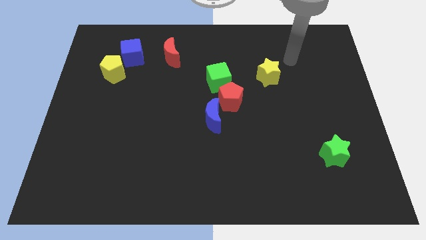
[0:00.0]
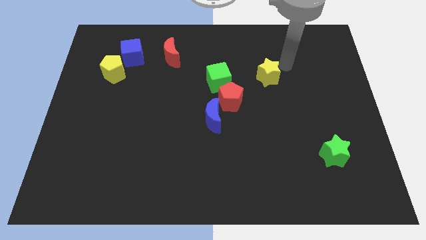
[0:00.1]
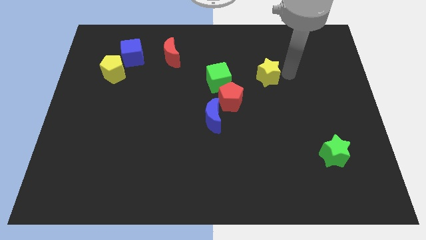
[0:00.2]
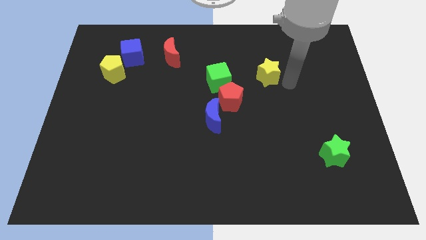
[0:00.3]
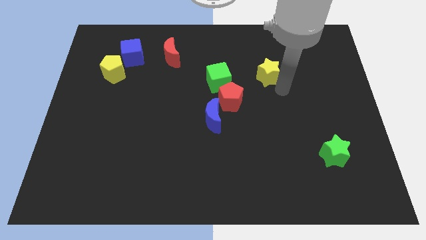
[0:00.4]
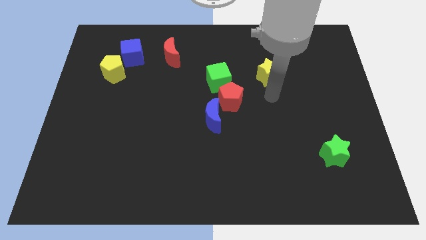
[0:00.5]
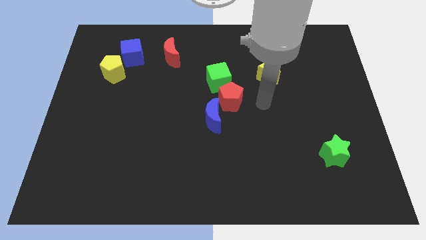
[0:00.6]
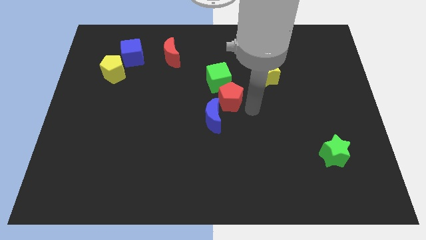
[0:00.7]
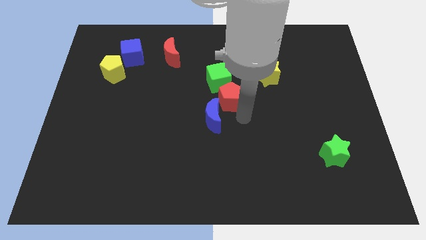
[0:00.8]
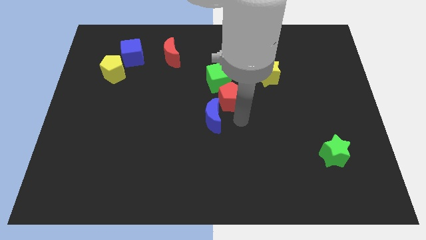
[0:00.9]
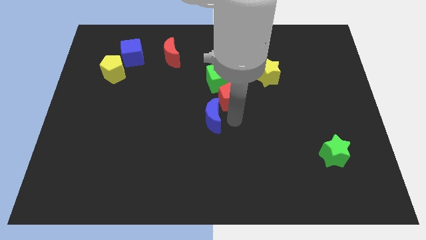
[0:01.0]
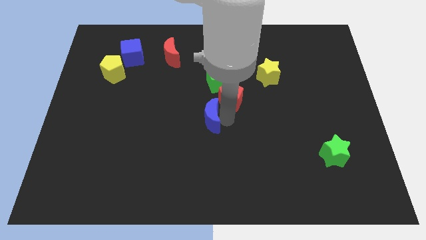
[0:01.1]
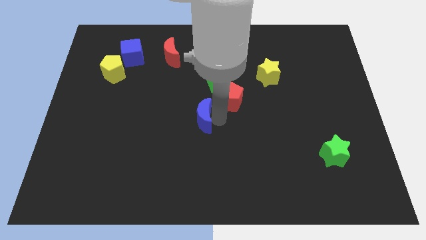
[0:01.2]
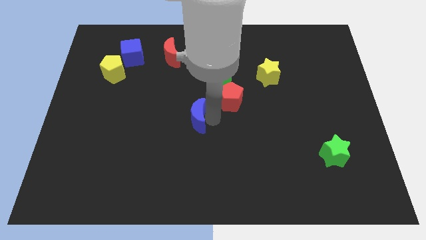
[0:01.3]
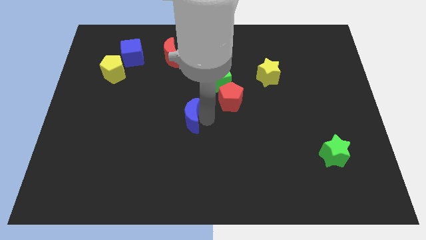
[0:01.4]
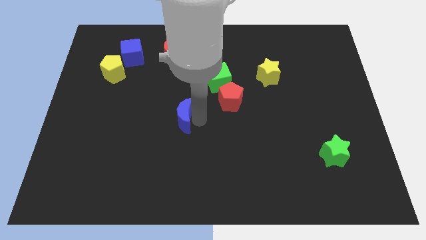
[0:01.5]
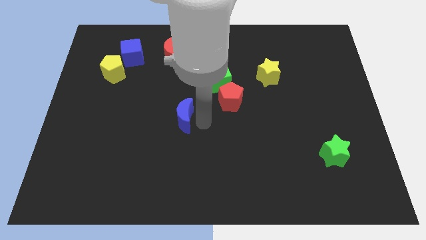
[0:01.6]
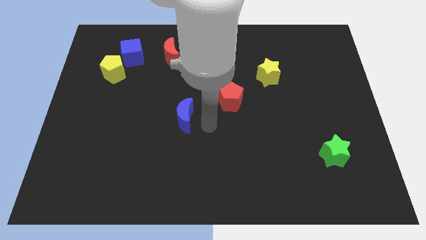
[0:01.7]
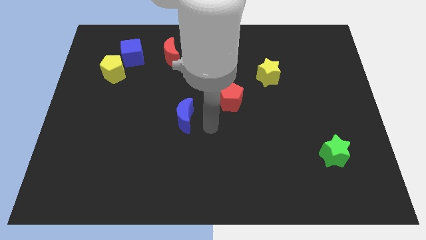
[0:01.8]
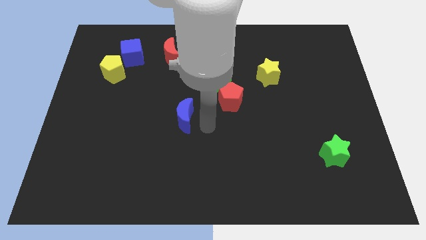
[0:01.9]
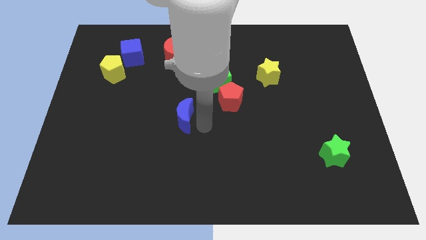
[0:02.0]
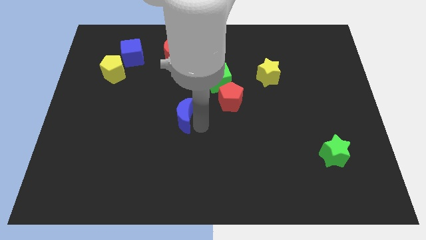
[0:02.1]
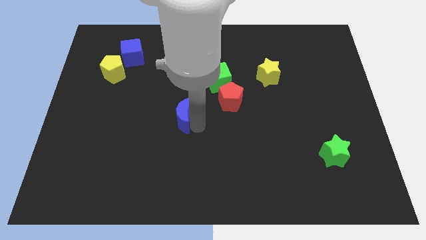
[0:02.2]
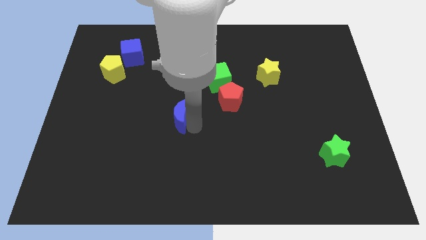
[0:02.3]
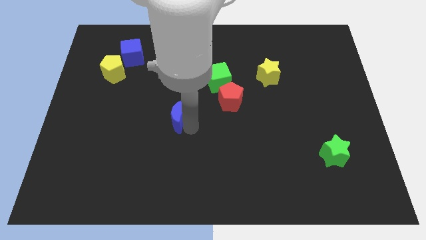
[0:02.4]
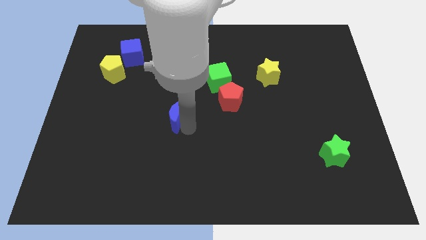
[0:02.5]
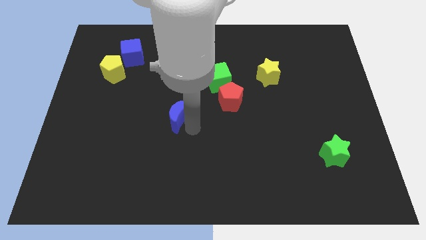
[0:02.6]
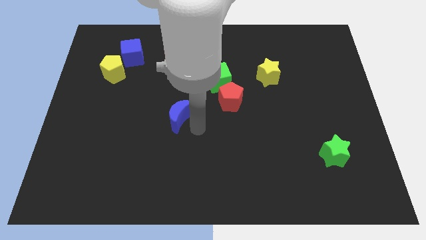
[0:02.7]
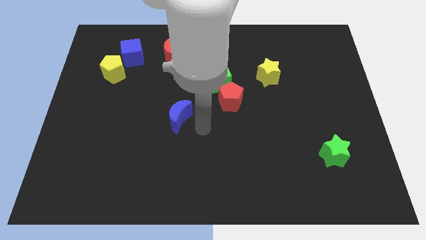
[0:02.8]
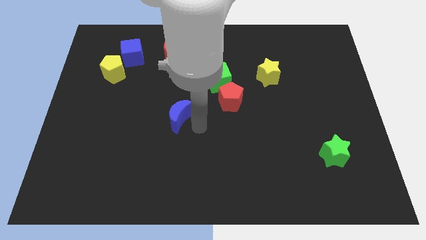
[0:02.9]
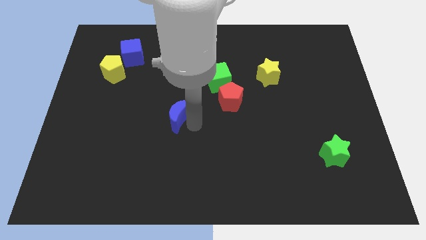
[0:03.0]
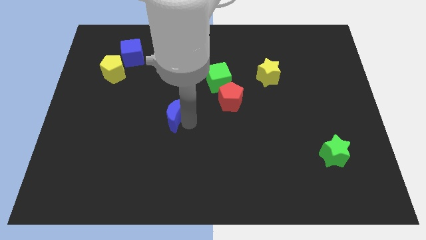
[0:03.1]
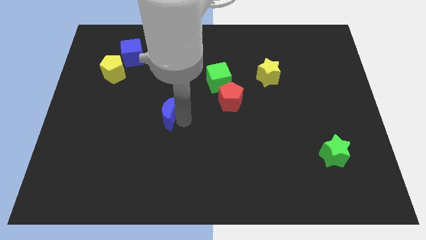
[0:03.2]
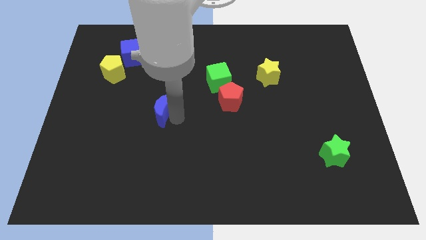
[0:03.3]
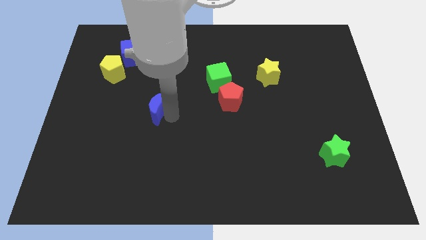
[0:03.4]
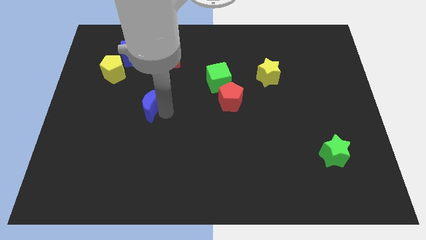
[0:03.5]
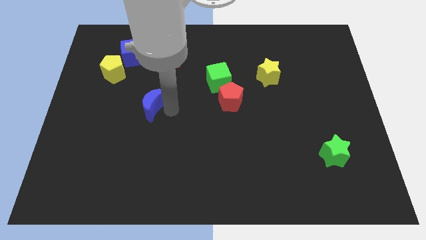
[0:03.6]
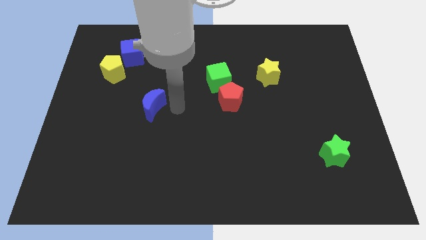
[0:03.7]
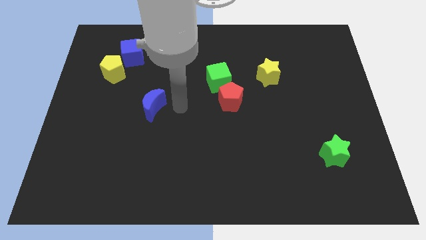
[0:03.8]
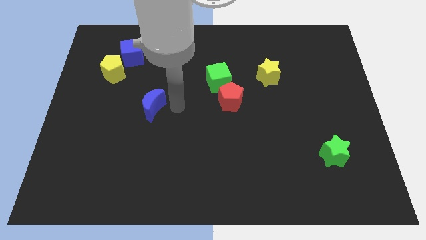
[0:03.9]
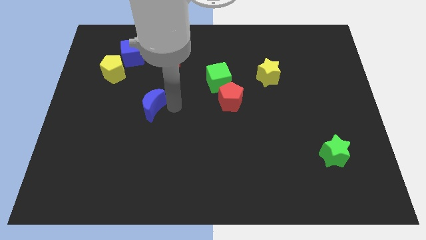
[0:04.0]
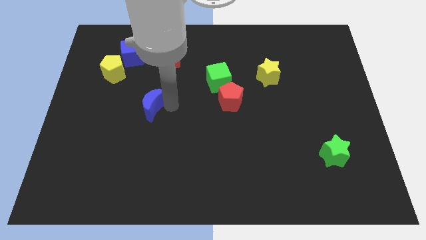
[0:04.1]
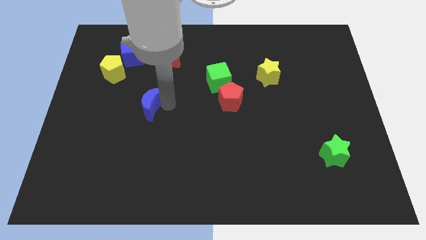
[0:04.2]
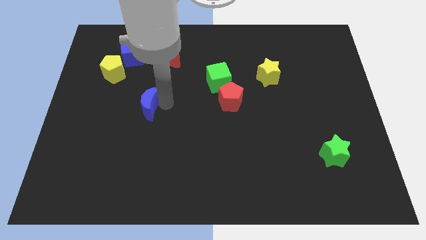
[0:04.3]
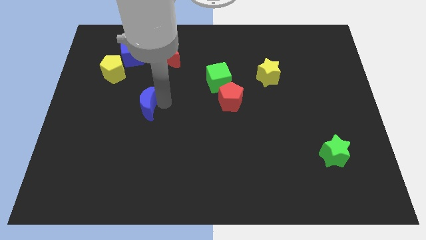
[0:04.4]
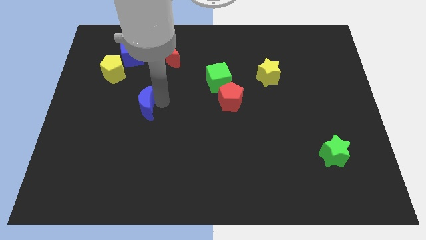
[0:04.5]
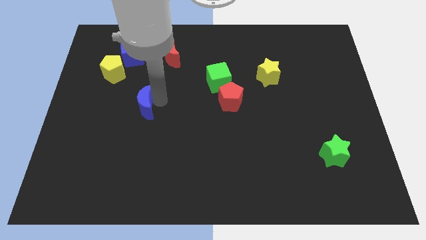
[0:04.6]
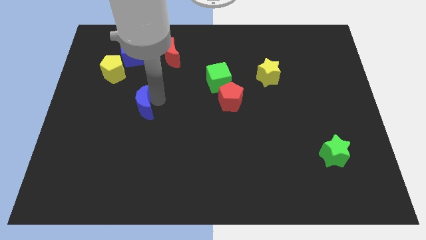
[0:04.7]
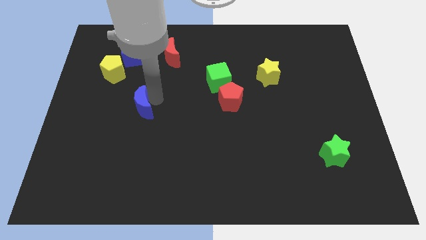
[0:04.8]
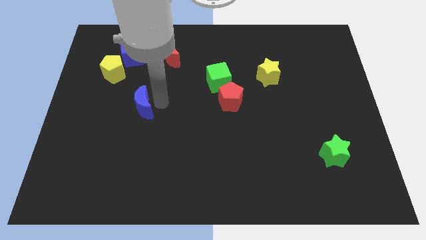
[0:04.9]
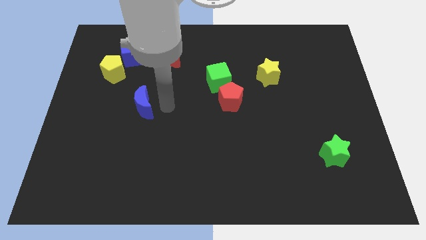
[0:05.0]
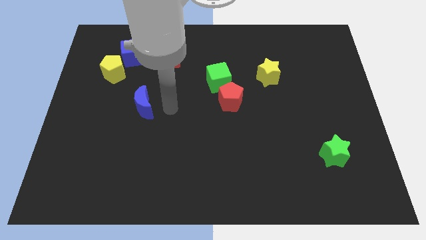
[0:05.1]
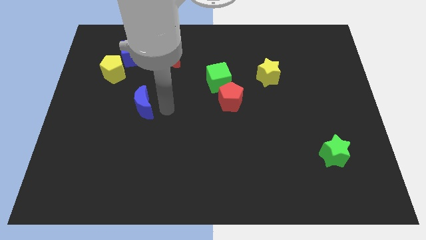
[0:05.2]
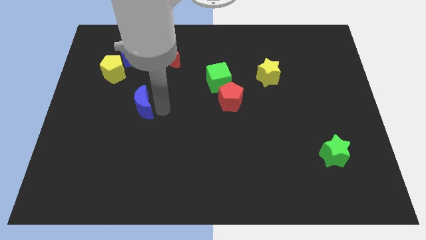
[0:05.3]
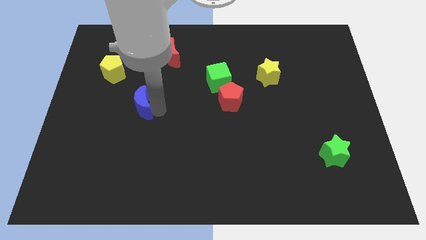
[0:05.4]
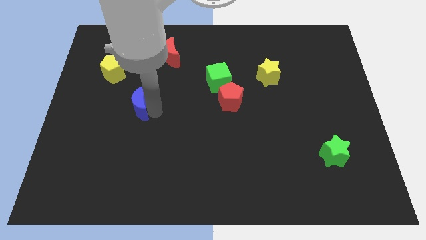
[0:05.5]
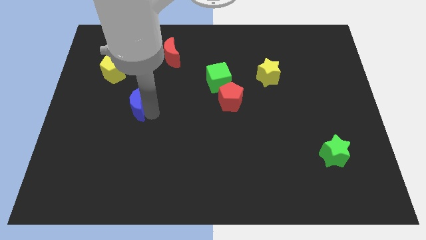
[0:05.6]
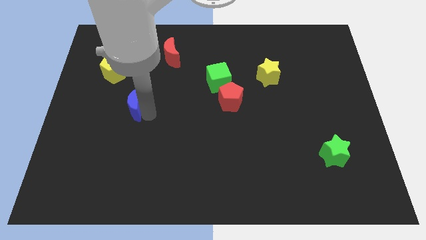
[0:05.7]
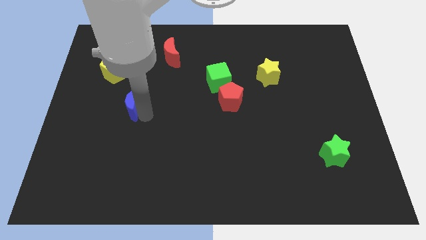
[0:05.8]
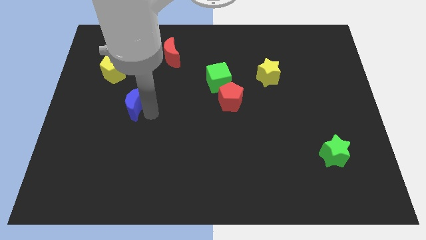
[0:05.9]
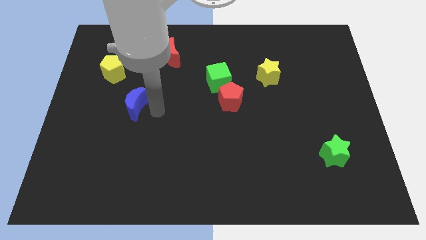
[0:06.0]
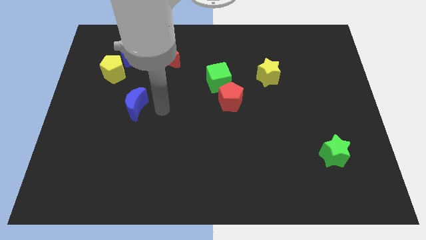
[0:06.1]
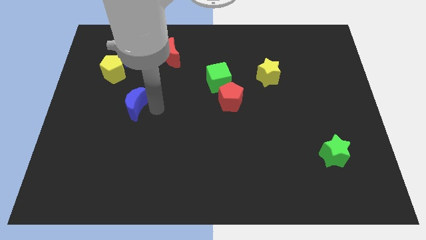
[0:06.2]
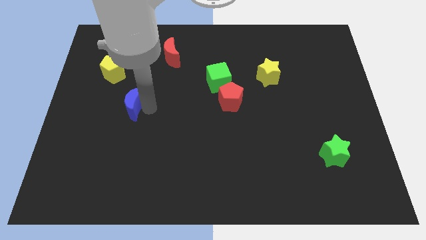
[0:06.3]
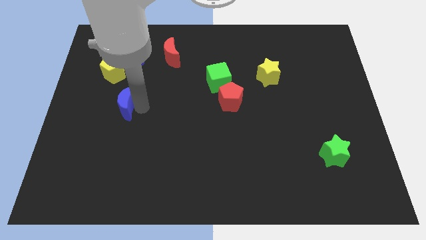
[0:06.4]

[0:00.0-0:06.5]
put the blue moon to the bottom side of the yellow pentagon
